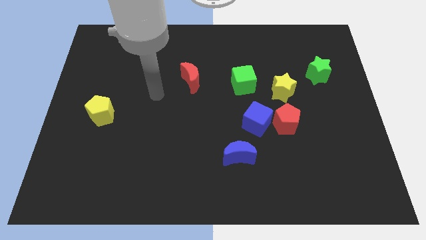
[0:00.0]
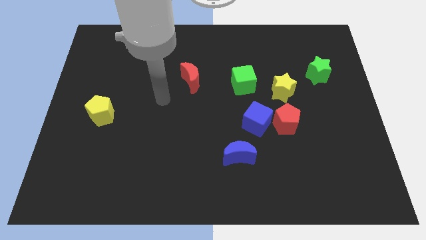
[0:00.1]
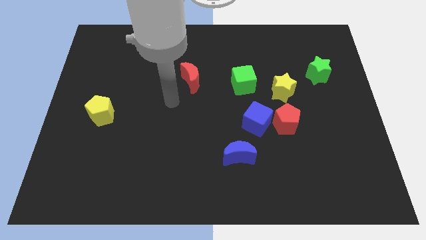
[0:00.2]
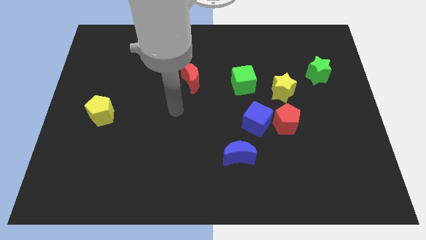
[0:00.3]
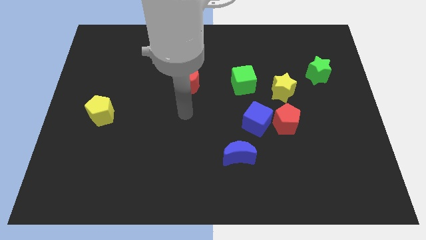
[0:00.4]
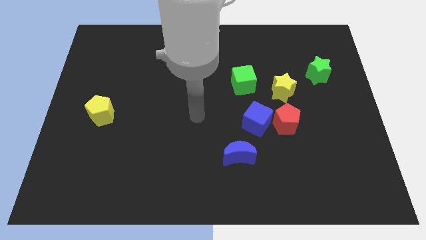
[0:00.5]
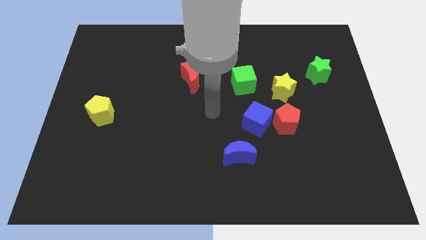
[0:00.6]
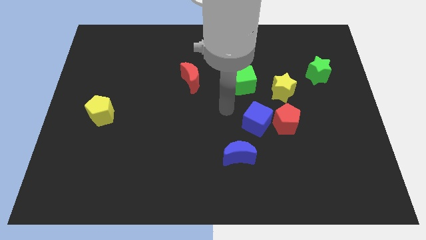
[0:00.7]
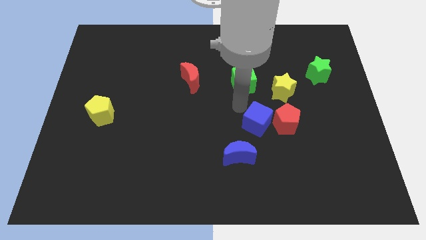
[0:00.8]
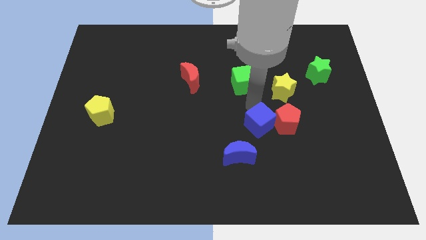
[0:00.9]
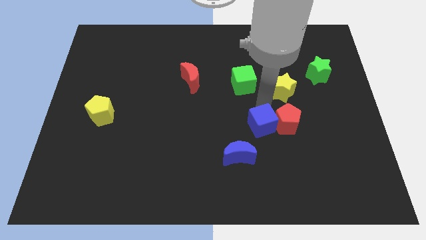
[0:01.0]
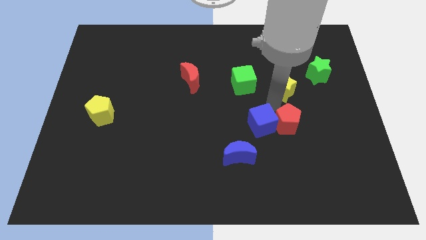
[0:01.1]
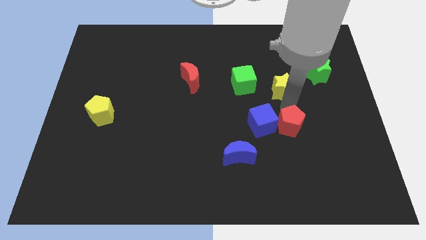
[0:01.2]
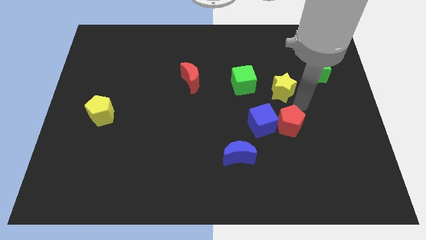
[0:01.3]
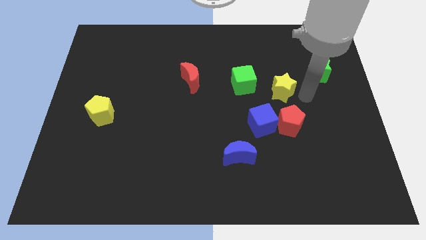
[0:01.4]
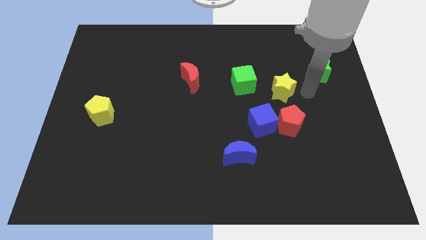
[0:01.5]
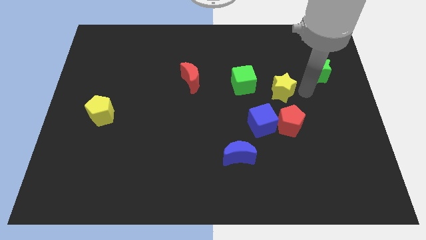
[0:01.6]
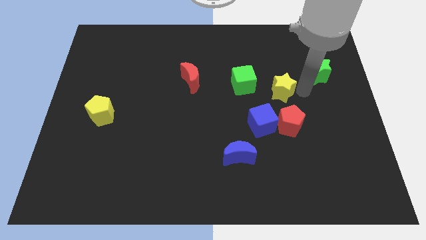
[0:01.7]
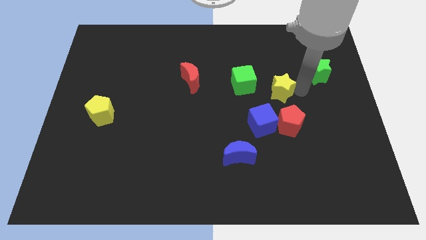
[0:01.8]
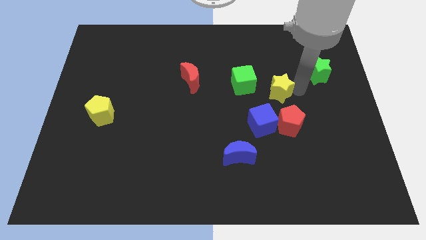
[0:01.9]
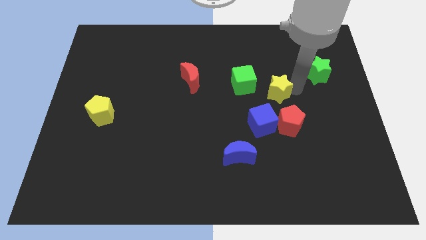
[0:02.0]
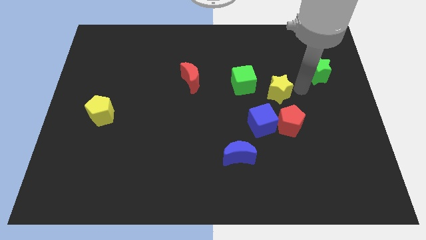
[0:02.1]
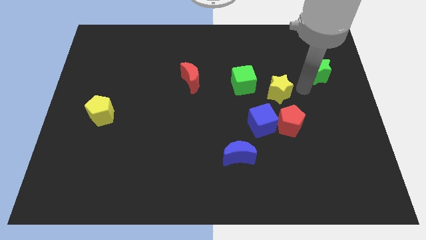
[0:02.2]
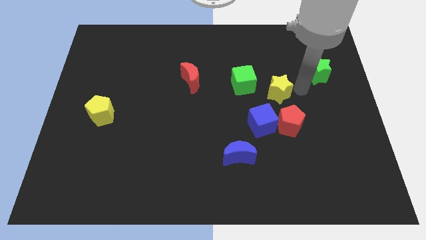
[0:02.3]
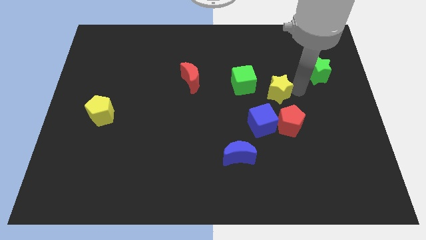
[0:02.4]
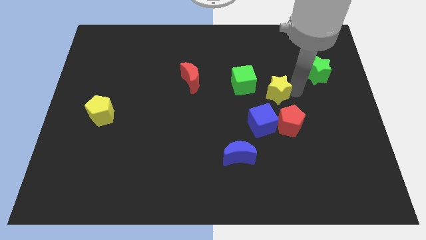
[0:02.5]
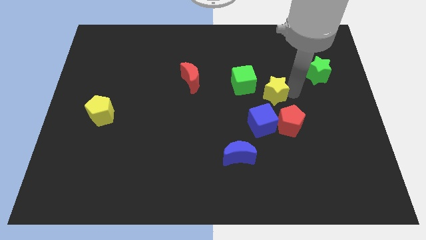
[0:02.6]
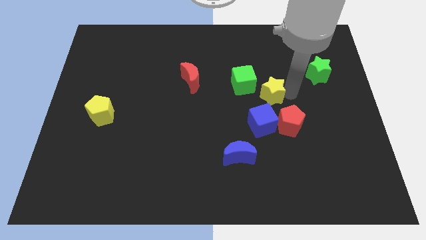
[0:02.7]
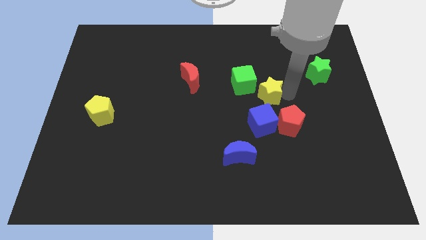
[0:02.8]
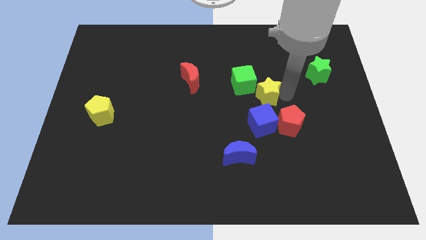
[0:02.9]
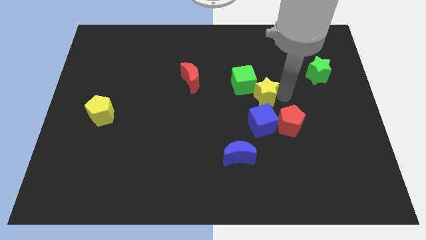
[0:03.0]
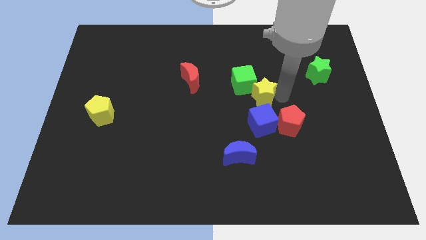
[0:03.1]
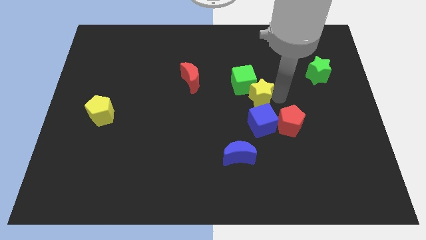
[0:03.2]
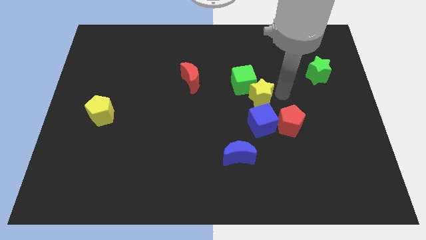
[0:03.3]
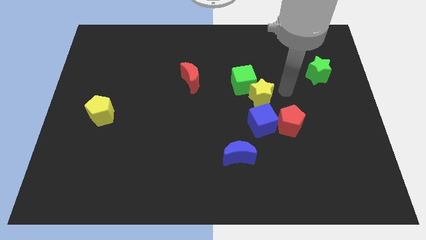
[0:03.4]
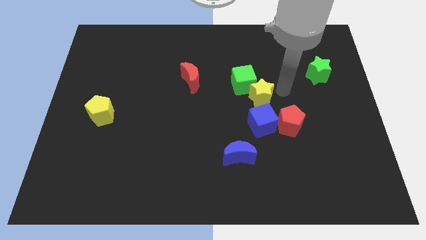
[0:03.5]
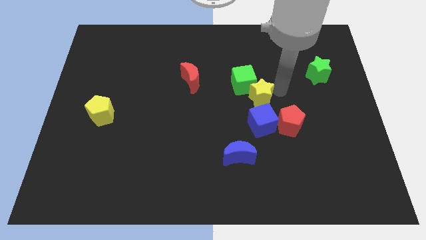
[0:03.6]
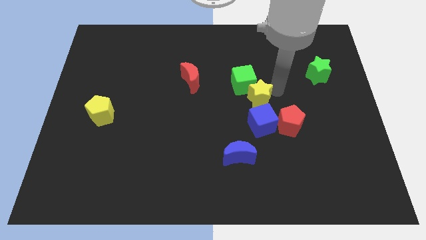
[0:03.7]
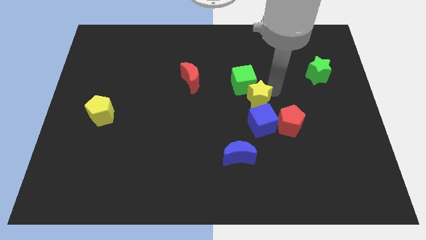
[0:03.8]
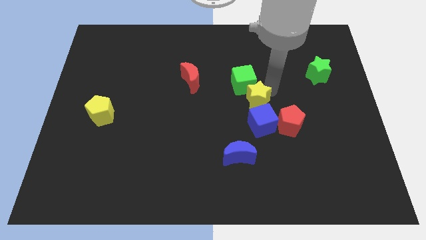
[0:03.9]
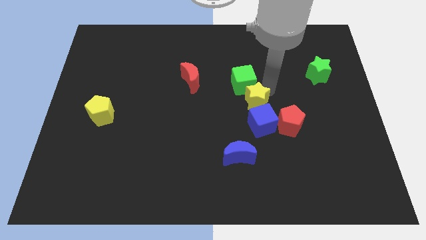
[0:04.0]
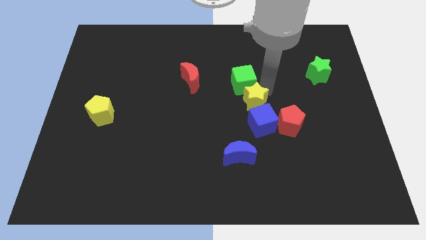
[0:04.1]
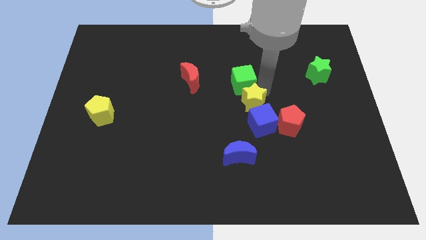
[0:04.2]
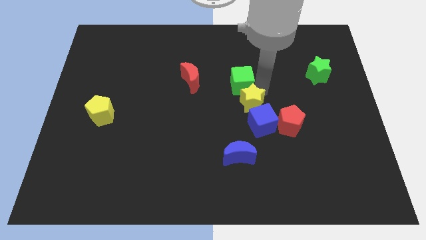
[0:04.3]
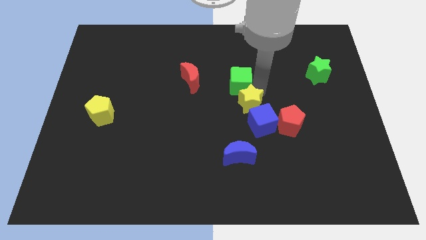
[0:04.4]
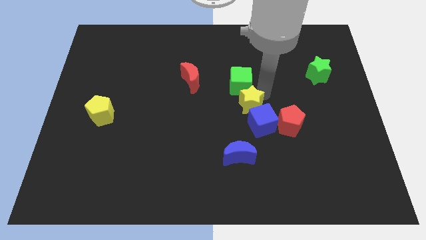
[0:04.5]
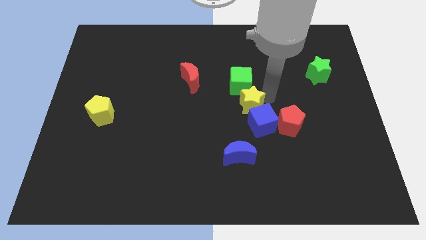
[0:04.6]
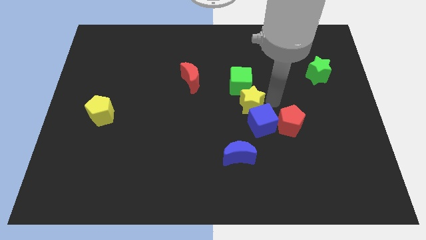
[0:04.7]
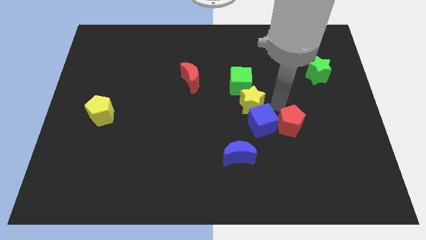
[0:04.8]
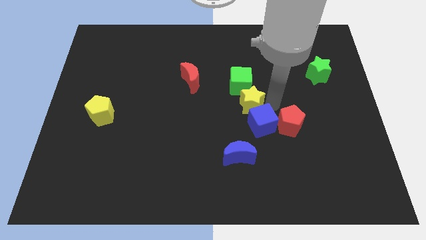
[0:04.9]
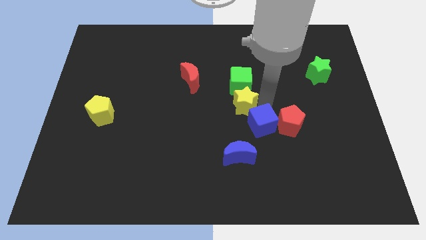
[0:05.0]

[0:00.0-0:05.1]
move the yellow star to the bottom left side of the green cube

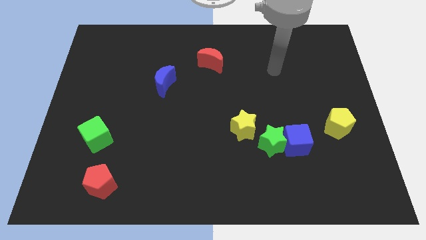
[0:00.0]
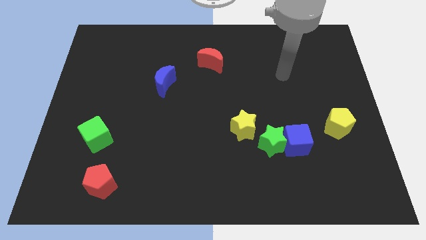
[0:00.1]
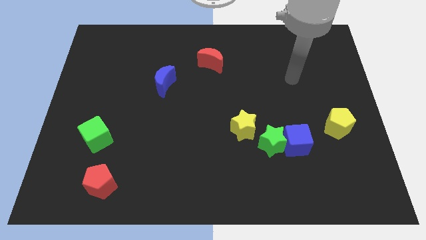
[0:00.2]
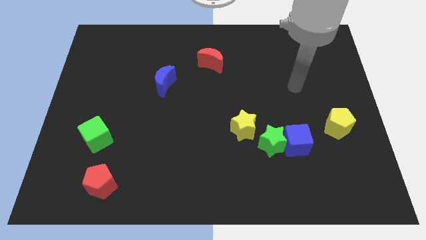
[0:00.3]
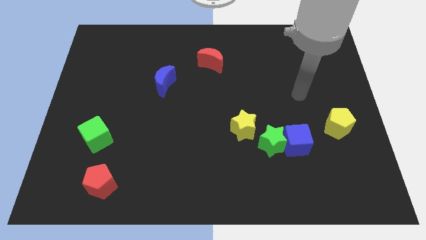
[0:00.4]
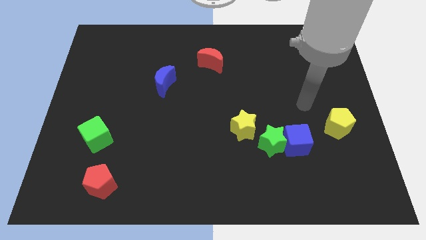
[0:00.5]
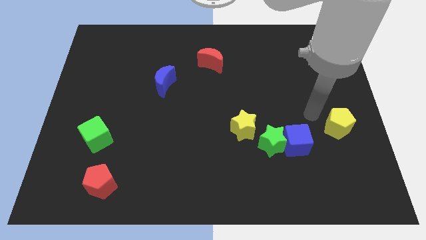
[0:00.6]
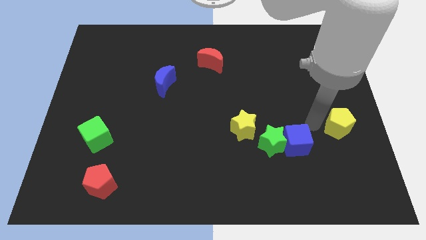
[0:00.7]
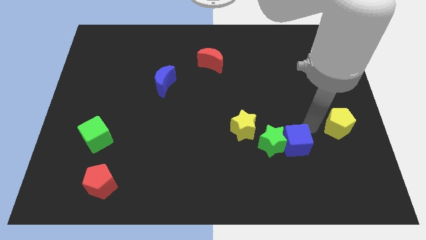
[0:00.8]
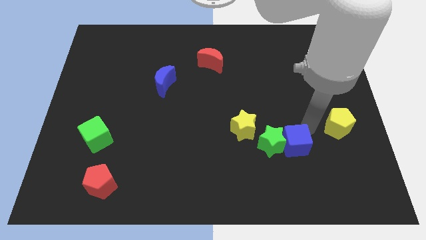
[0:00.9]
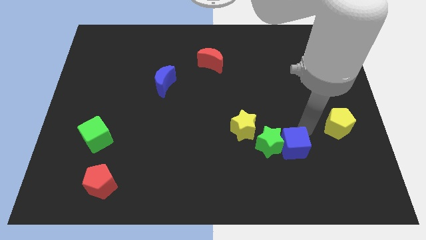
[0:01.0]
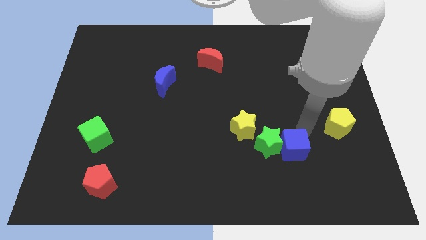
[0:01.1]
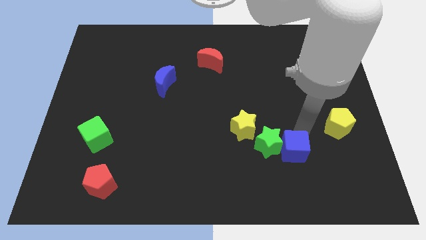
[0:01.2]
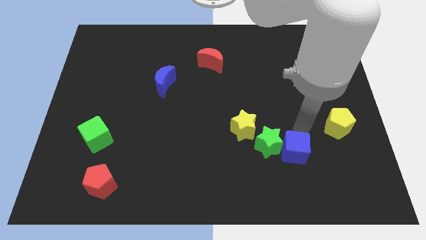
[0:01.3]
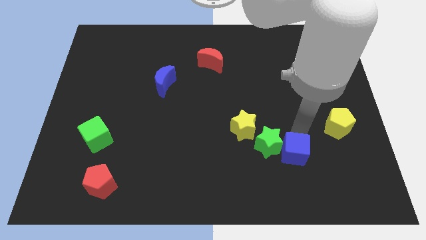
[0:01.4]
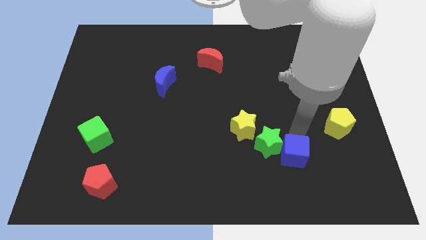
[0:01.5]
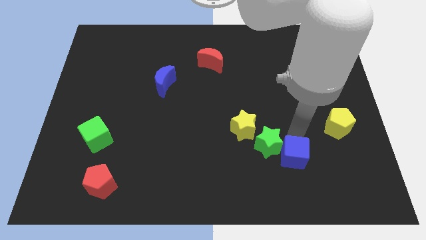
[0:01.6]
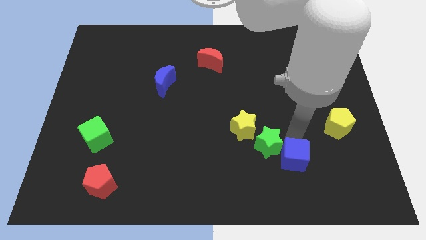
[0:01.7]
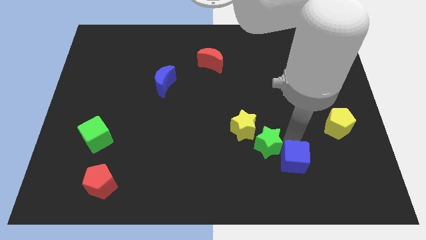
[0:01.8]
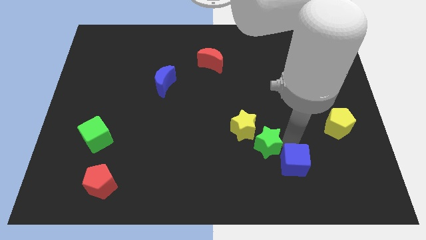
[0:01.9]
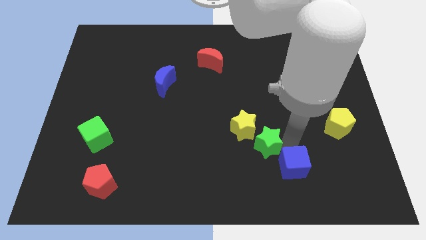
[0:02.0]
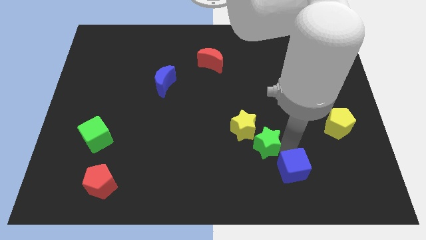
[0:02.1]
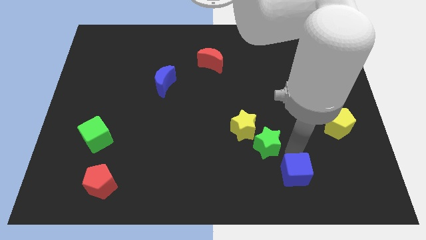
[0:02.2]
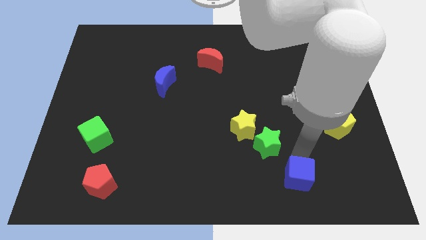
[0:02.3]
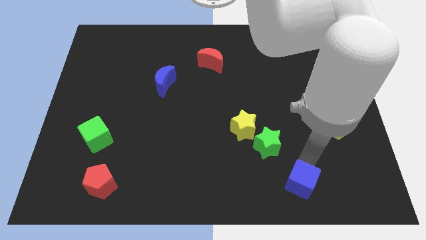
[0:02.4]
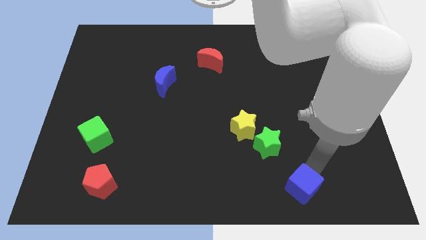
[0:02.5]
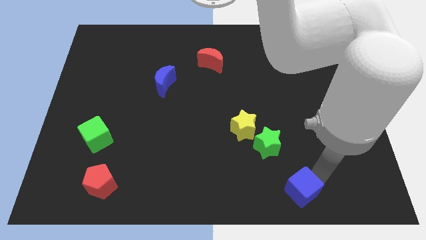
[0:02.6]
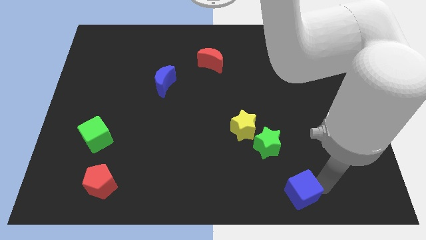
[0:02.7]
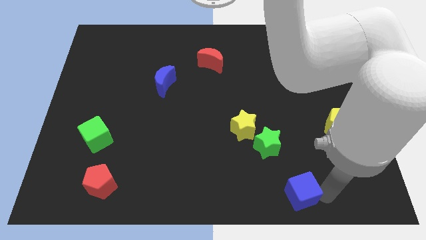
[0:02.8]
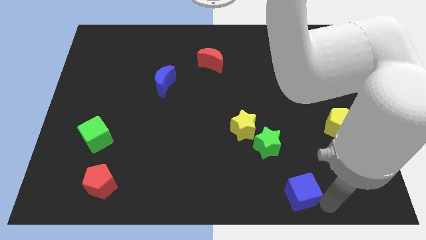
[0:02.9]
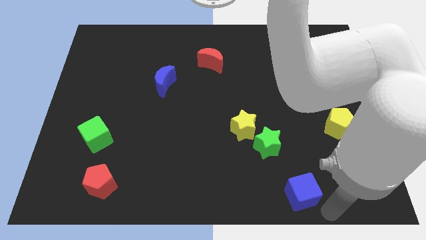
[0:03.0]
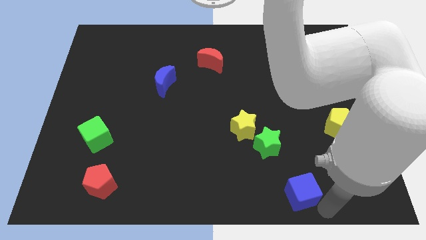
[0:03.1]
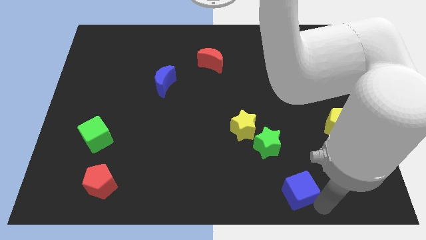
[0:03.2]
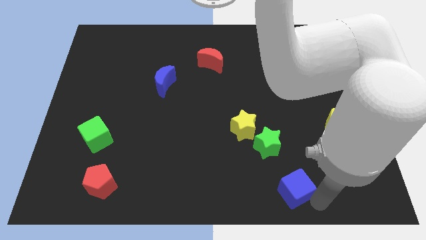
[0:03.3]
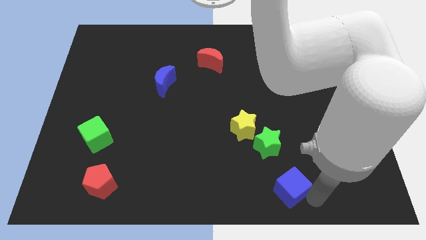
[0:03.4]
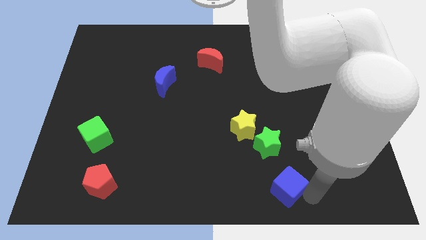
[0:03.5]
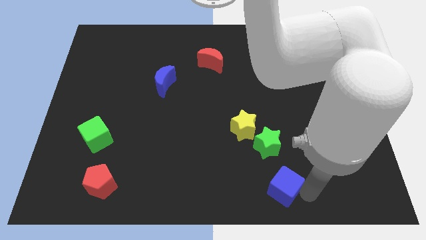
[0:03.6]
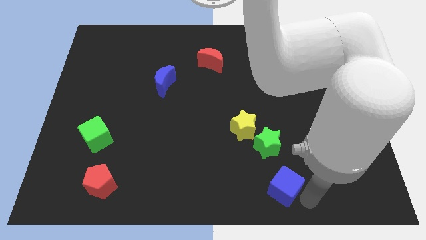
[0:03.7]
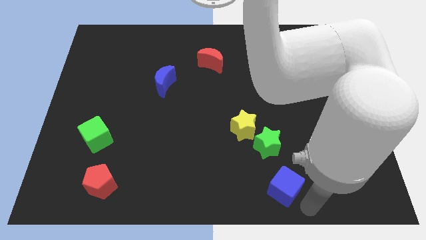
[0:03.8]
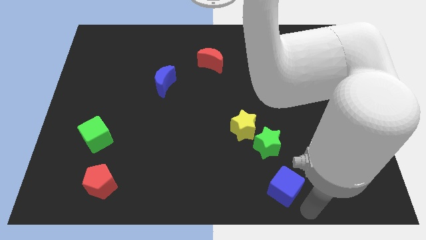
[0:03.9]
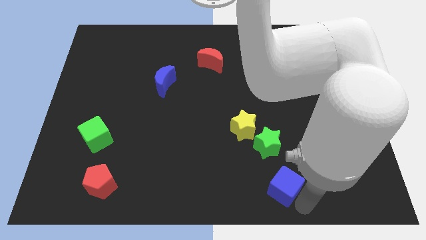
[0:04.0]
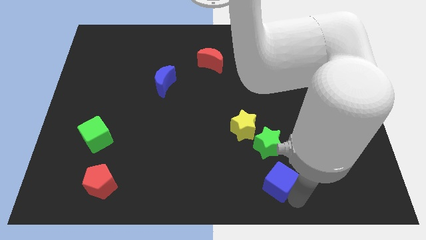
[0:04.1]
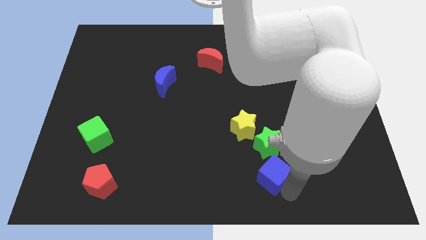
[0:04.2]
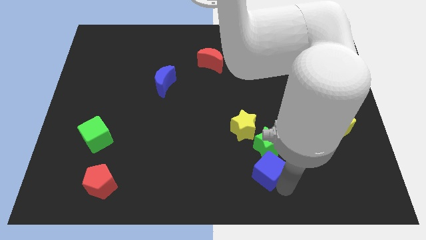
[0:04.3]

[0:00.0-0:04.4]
push the blue cube below the yellow star
